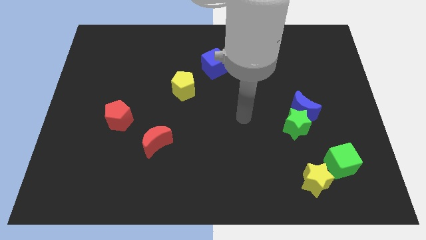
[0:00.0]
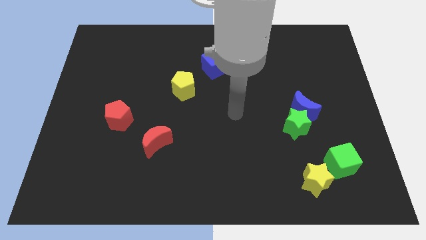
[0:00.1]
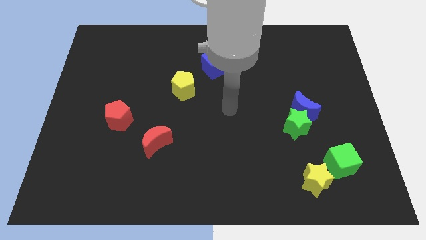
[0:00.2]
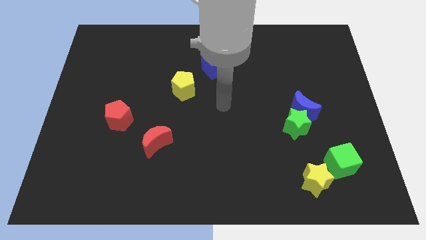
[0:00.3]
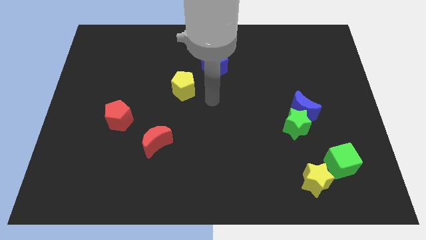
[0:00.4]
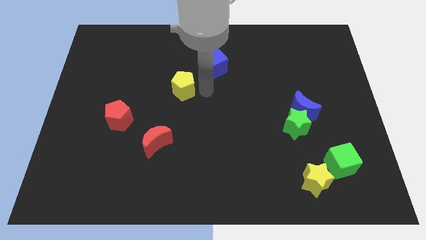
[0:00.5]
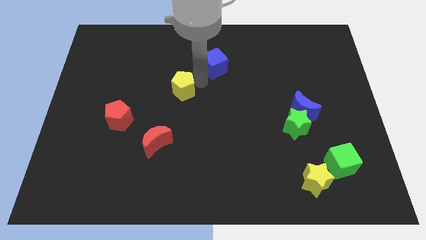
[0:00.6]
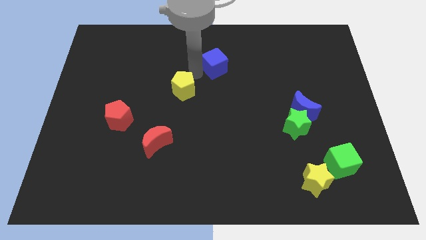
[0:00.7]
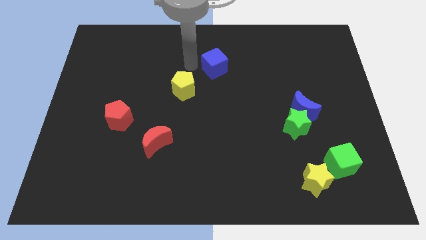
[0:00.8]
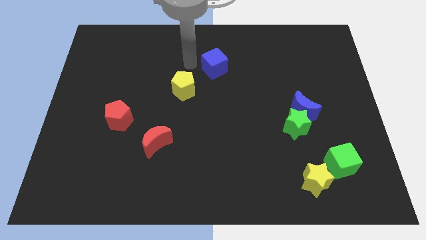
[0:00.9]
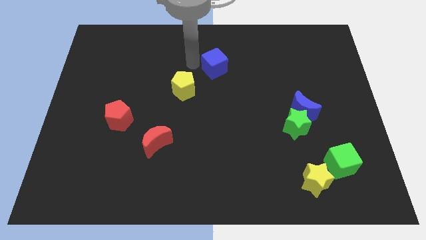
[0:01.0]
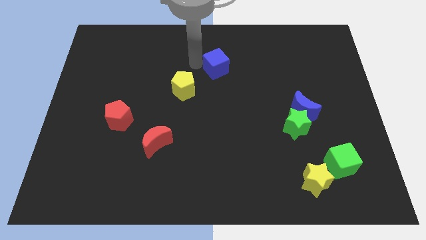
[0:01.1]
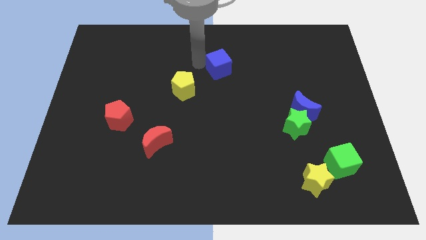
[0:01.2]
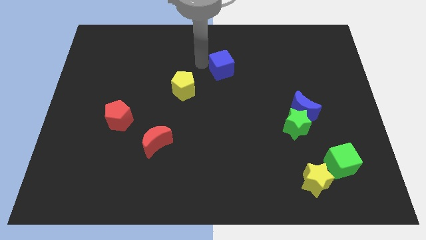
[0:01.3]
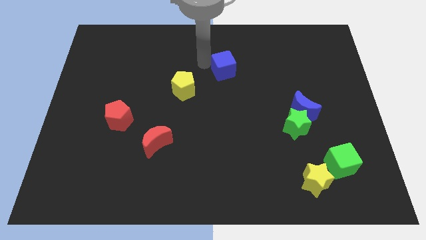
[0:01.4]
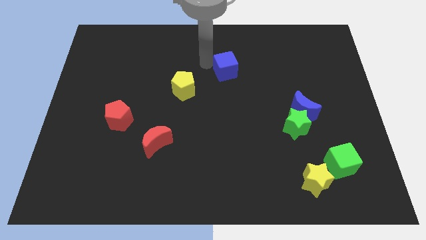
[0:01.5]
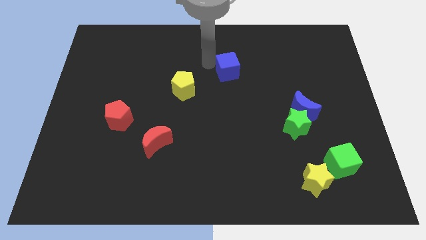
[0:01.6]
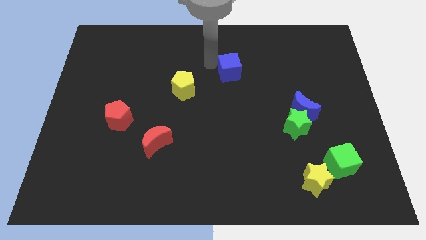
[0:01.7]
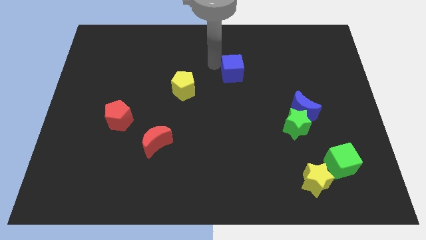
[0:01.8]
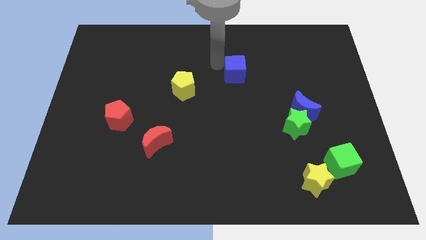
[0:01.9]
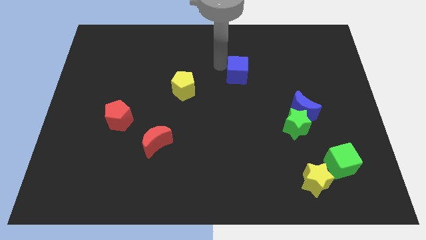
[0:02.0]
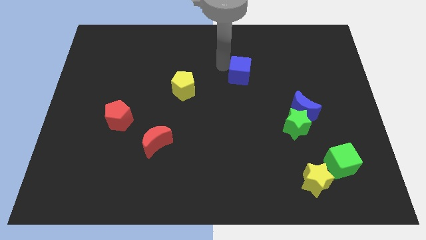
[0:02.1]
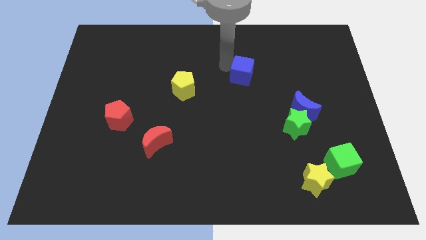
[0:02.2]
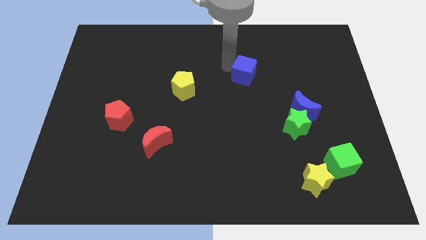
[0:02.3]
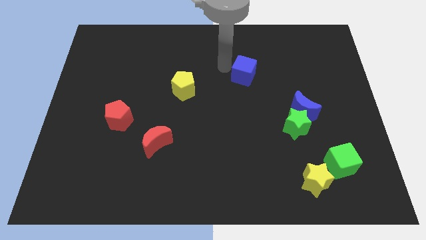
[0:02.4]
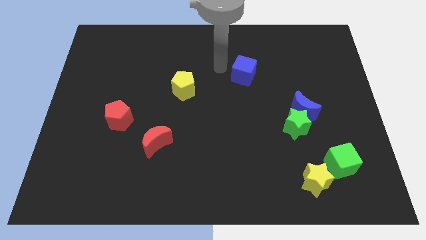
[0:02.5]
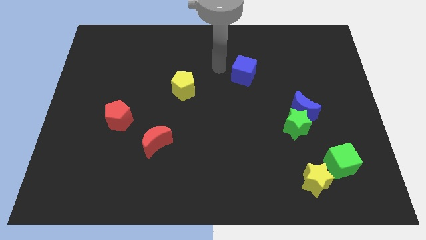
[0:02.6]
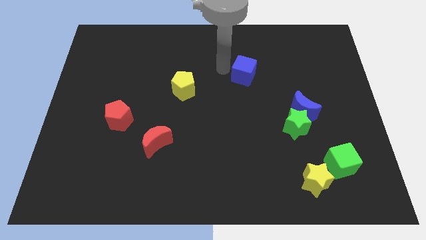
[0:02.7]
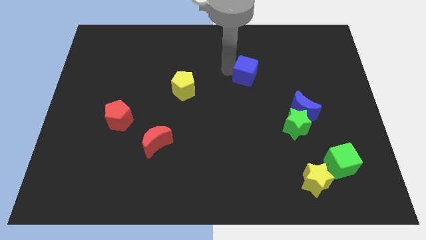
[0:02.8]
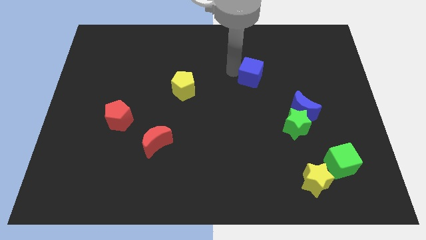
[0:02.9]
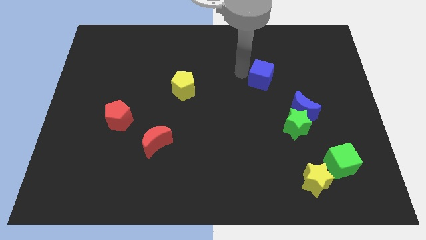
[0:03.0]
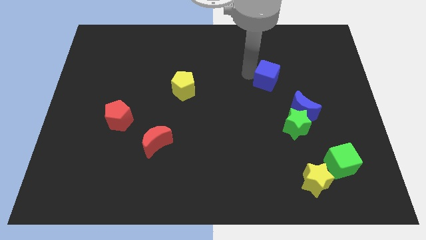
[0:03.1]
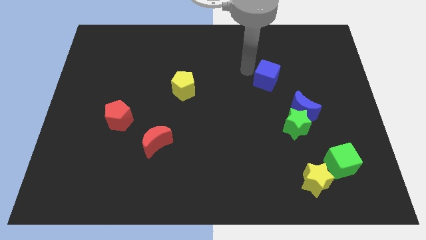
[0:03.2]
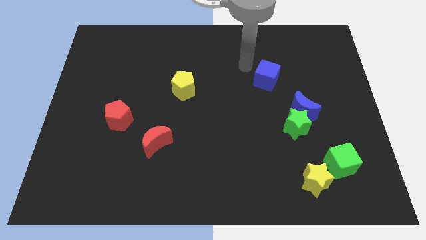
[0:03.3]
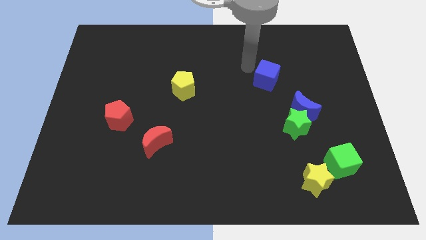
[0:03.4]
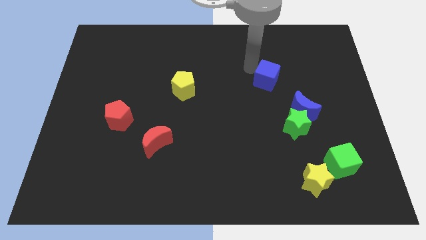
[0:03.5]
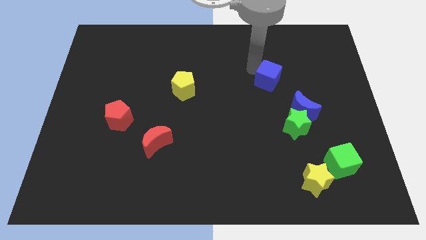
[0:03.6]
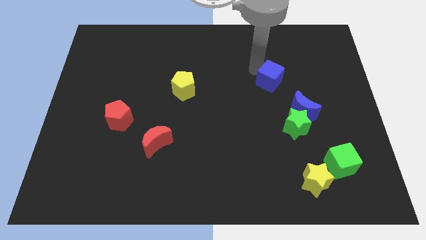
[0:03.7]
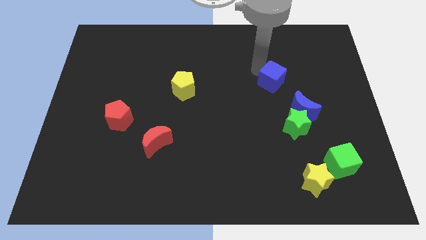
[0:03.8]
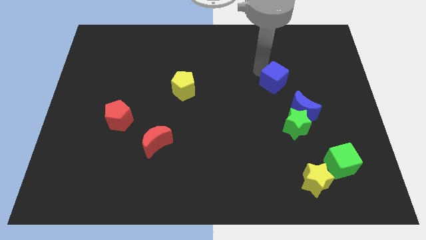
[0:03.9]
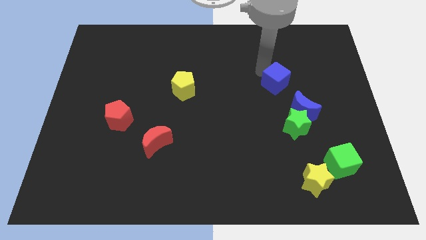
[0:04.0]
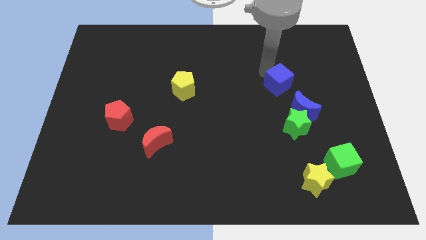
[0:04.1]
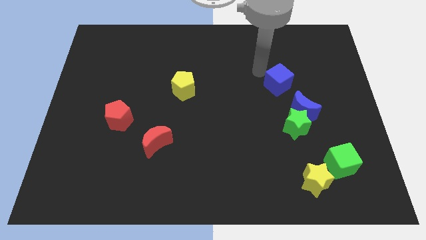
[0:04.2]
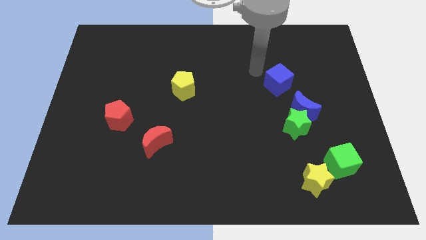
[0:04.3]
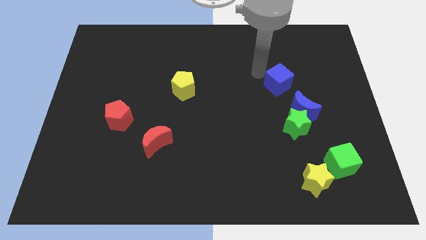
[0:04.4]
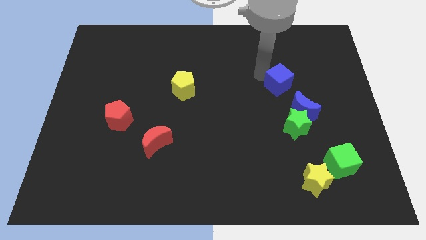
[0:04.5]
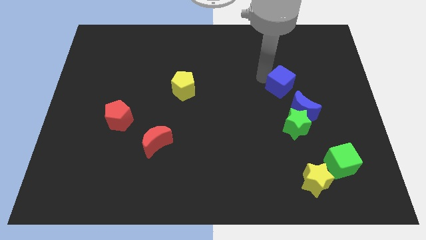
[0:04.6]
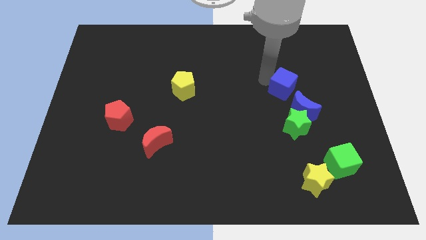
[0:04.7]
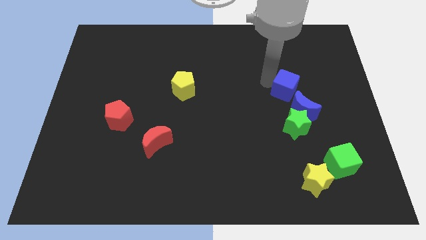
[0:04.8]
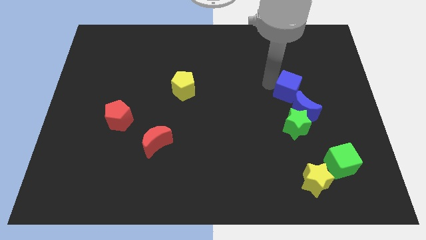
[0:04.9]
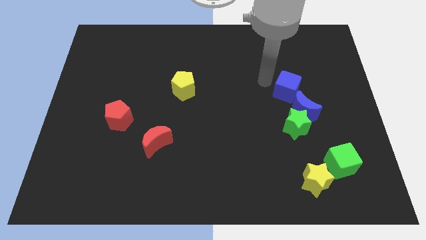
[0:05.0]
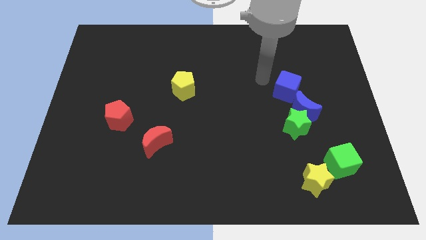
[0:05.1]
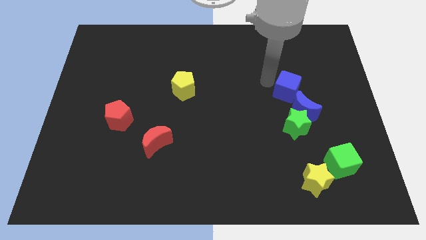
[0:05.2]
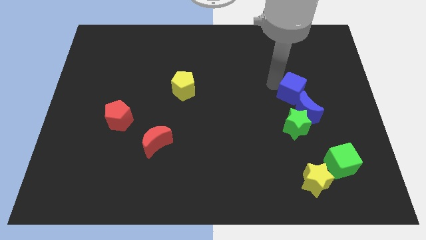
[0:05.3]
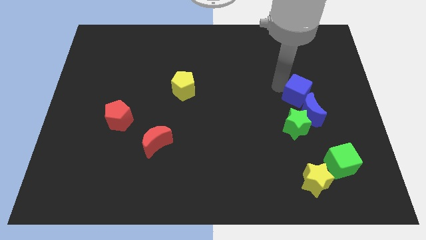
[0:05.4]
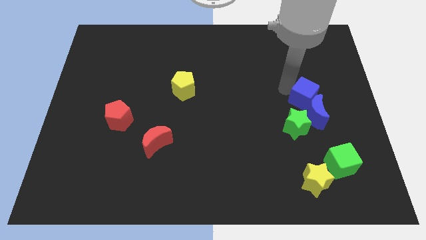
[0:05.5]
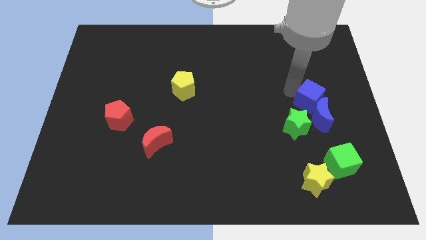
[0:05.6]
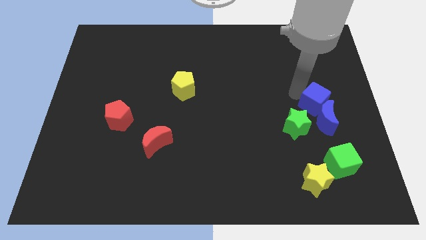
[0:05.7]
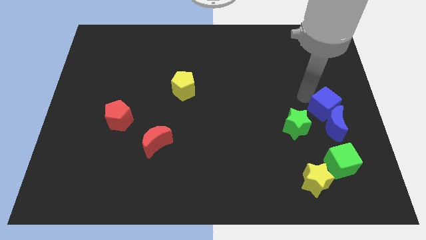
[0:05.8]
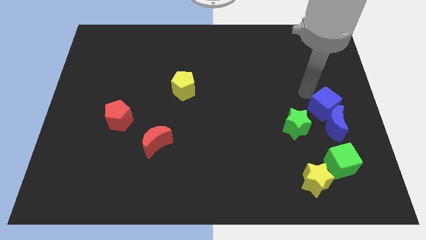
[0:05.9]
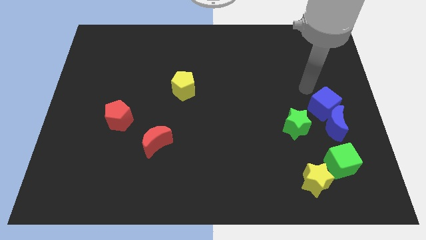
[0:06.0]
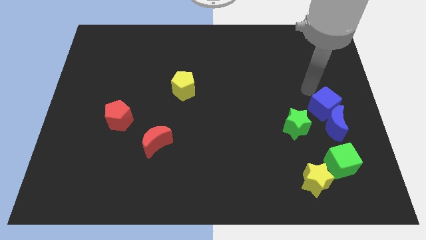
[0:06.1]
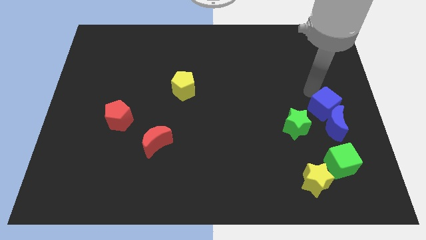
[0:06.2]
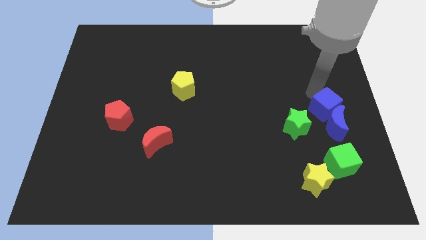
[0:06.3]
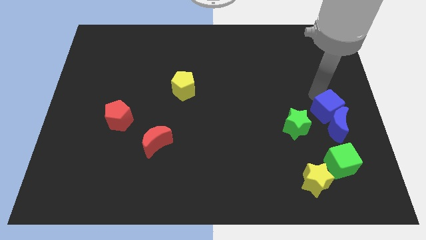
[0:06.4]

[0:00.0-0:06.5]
push the blue cube to the right of the green star
